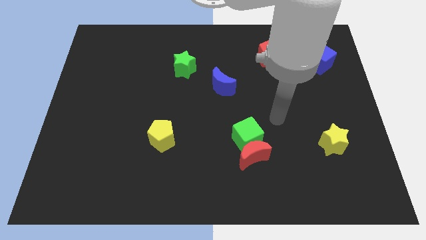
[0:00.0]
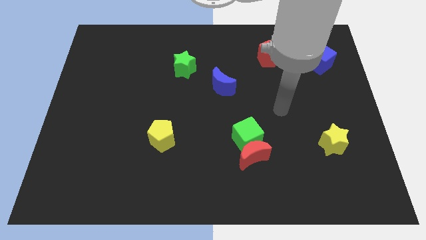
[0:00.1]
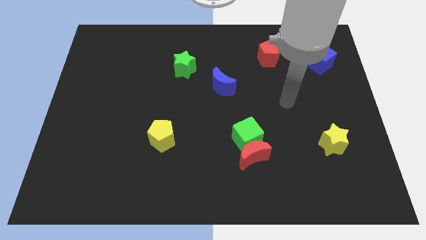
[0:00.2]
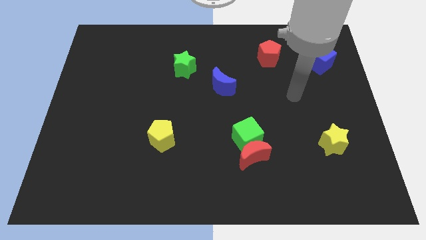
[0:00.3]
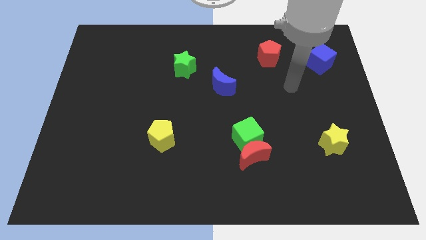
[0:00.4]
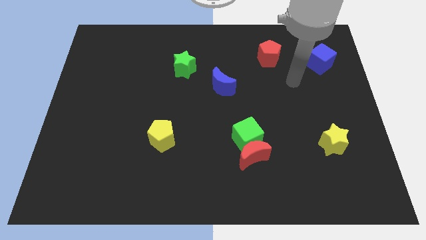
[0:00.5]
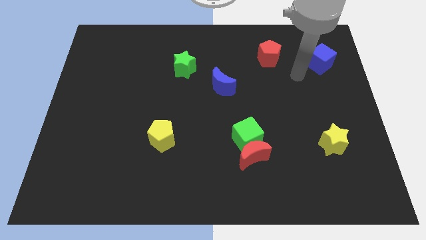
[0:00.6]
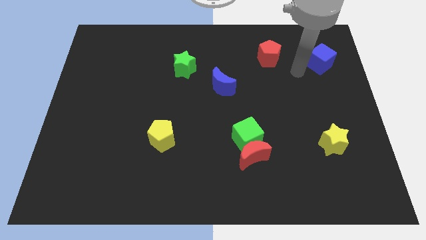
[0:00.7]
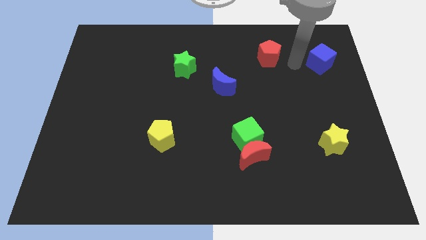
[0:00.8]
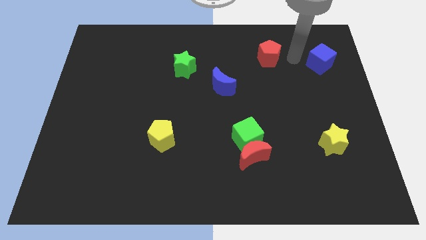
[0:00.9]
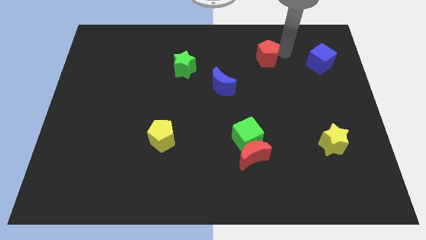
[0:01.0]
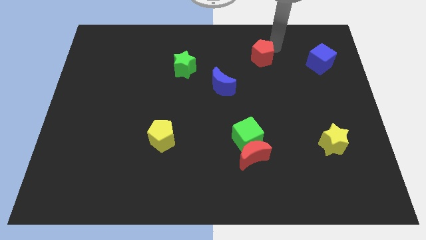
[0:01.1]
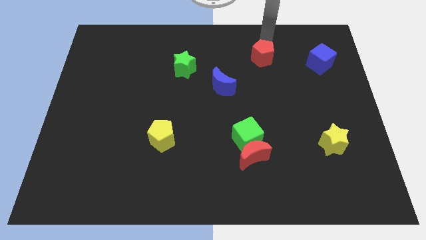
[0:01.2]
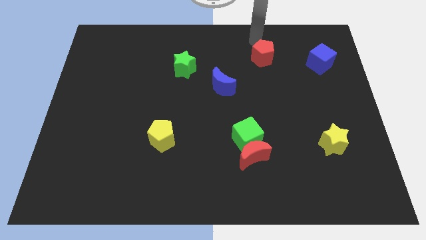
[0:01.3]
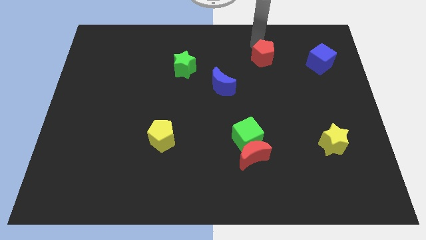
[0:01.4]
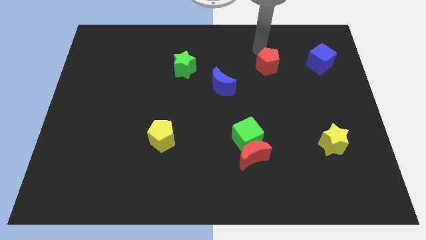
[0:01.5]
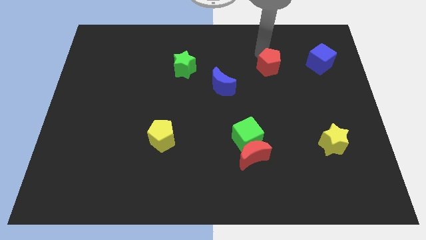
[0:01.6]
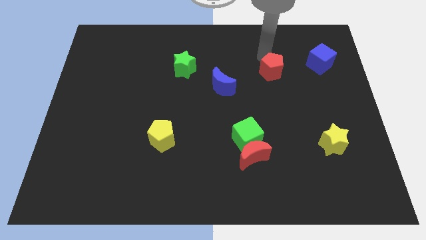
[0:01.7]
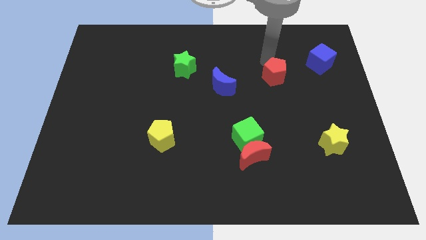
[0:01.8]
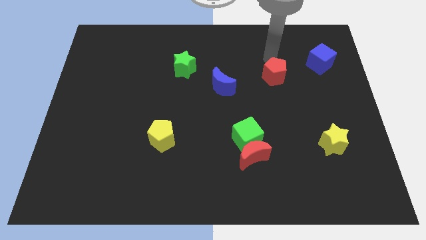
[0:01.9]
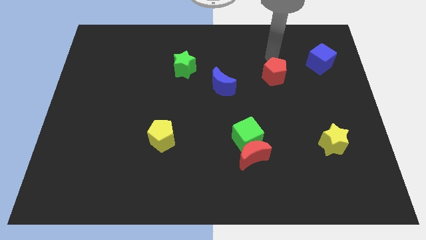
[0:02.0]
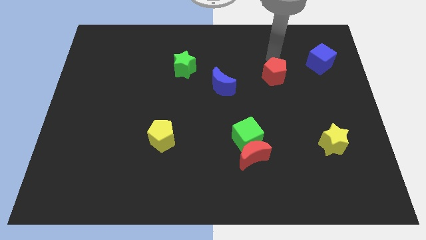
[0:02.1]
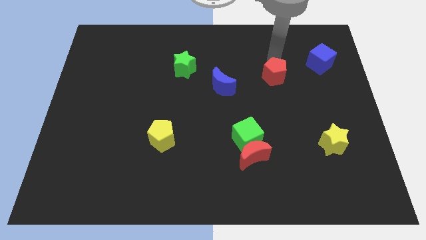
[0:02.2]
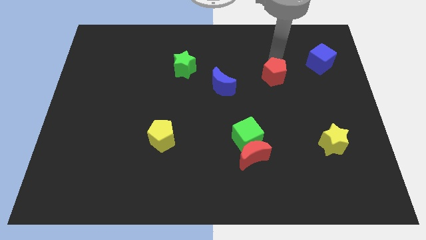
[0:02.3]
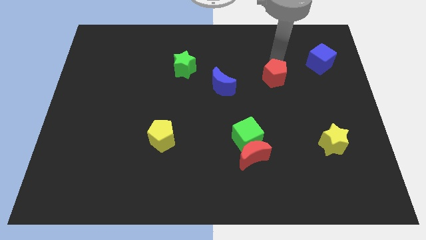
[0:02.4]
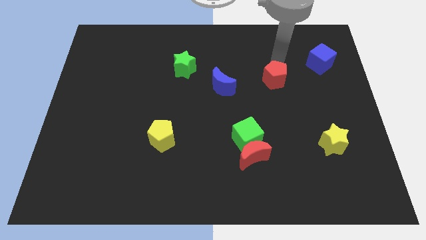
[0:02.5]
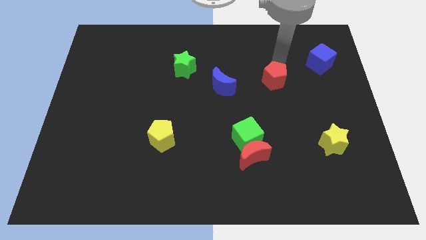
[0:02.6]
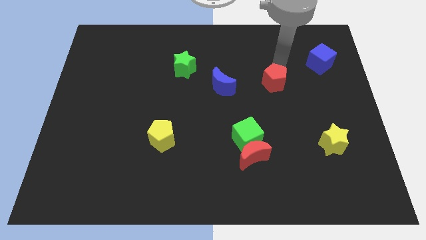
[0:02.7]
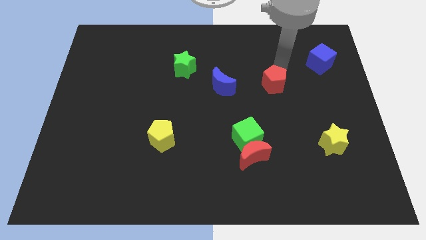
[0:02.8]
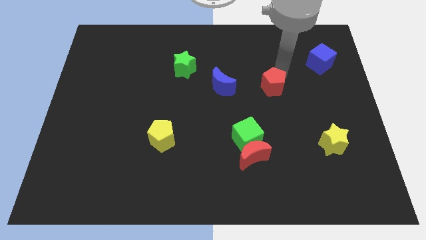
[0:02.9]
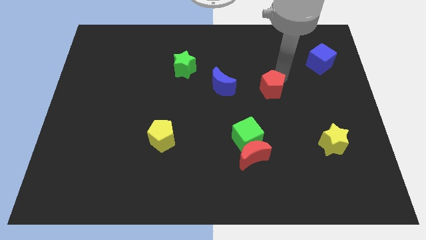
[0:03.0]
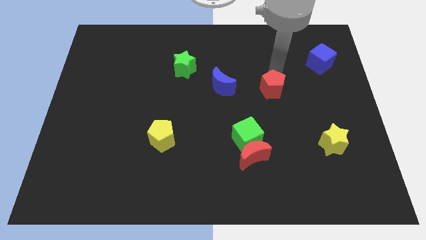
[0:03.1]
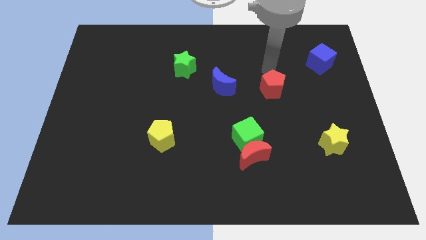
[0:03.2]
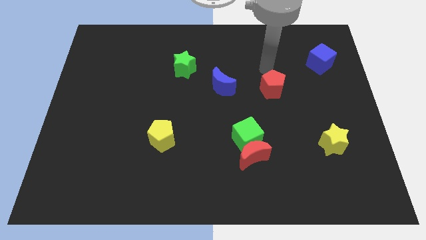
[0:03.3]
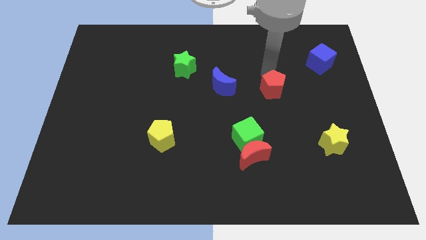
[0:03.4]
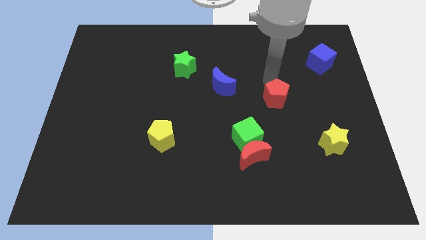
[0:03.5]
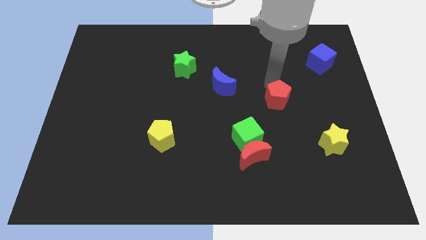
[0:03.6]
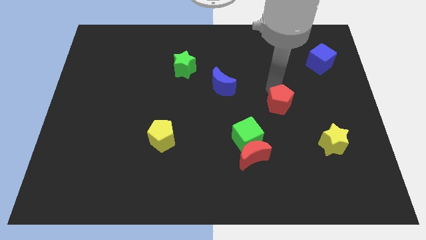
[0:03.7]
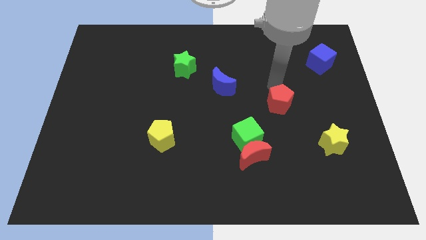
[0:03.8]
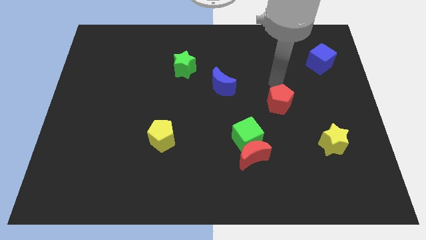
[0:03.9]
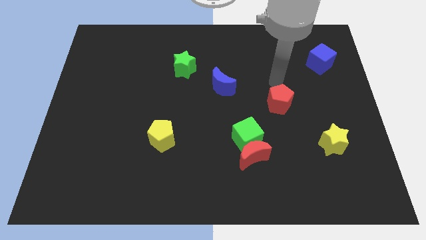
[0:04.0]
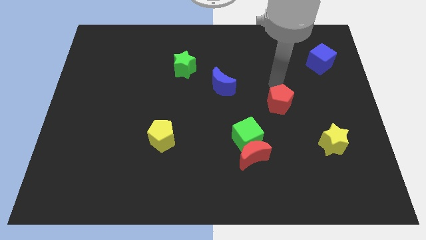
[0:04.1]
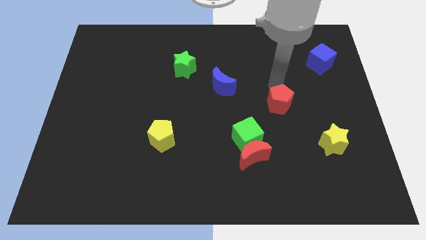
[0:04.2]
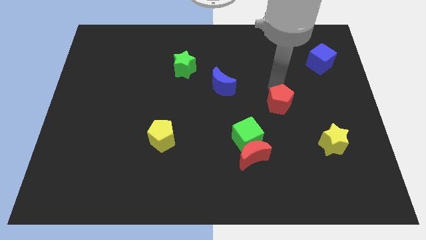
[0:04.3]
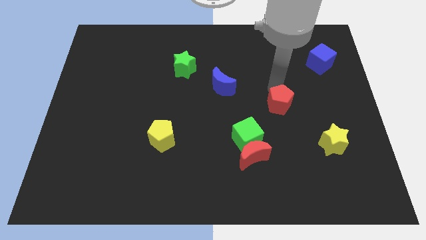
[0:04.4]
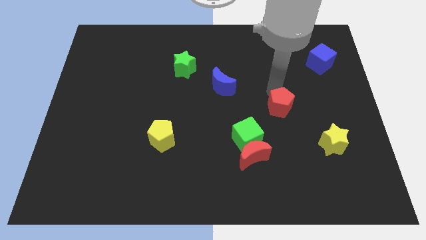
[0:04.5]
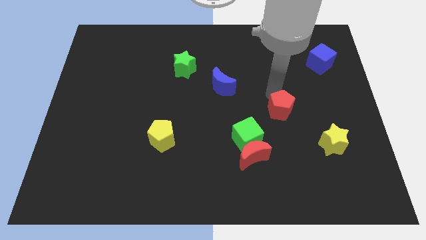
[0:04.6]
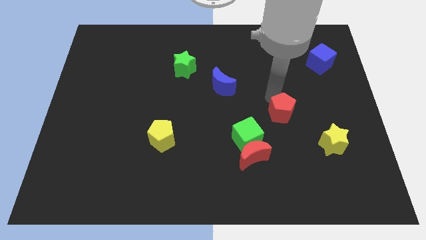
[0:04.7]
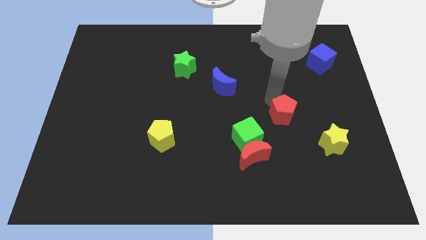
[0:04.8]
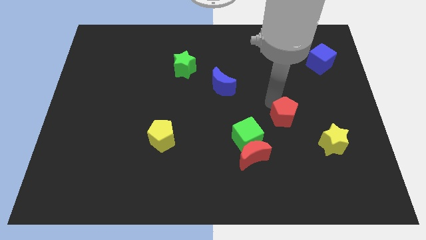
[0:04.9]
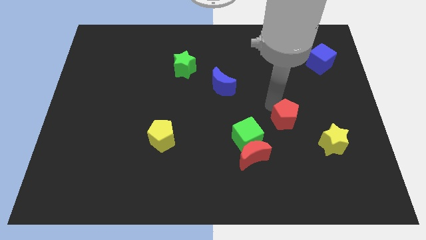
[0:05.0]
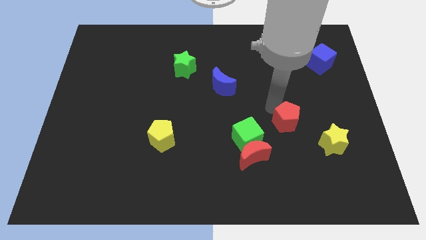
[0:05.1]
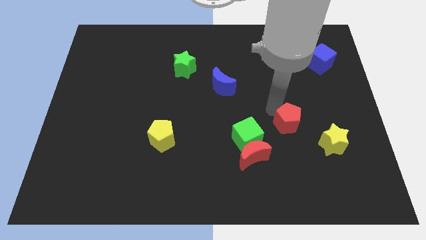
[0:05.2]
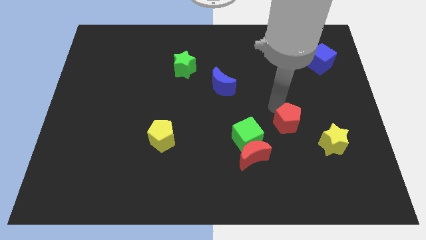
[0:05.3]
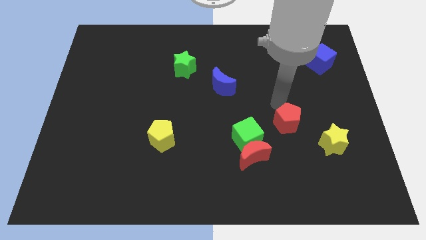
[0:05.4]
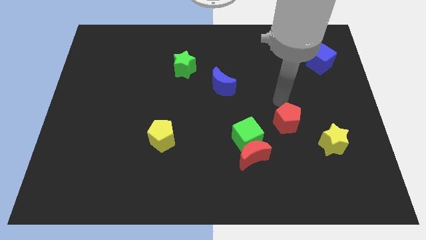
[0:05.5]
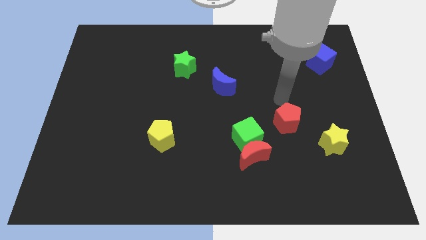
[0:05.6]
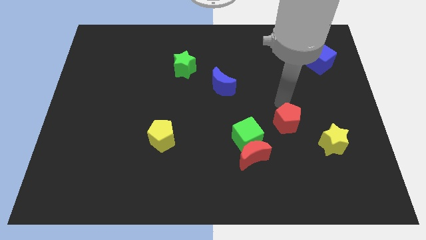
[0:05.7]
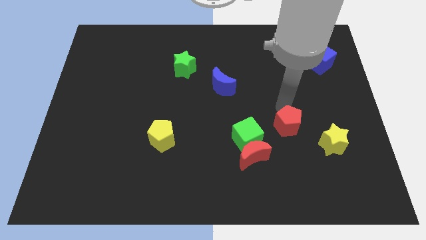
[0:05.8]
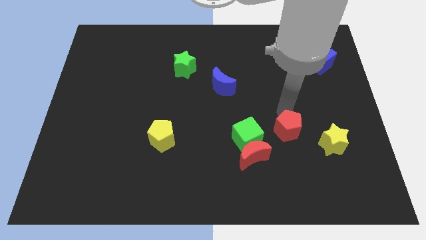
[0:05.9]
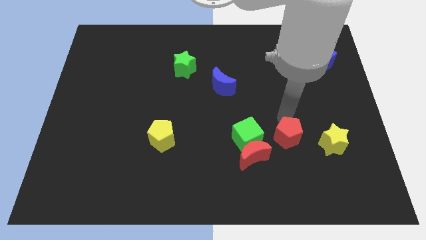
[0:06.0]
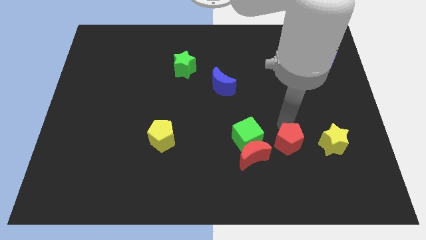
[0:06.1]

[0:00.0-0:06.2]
slide the red pentagon to the right of the red moon

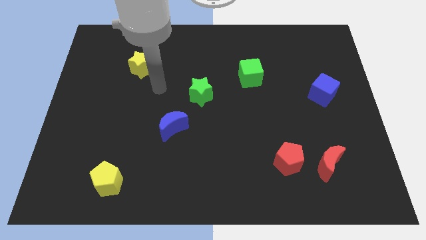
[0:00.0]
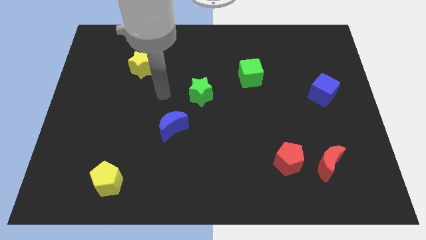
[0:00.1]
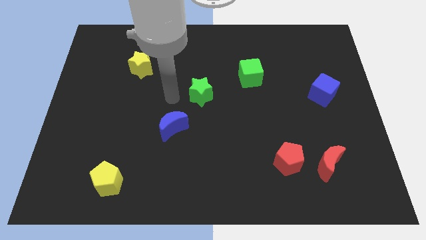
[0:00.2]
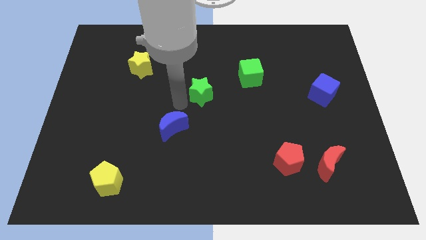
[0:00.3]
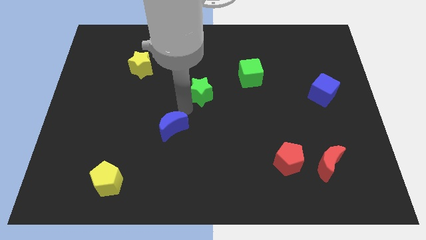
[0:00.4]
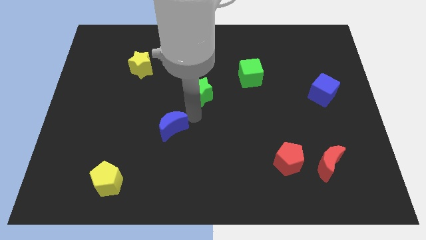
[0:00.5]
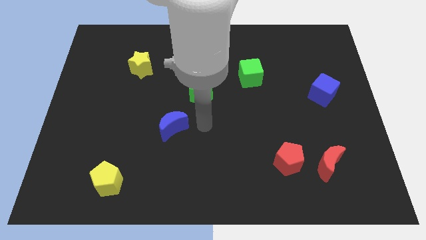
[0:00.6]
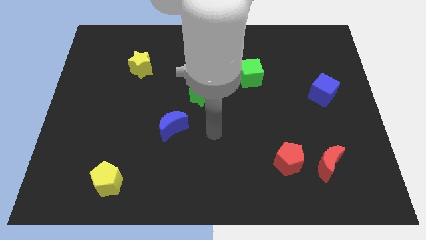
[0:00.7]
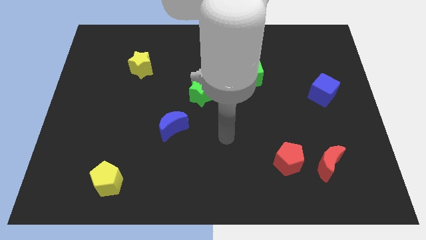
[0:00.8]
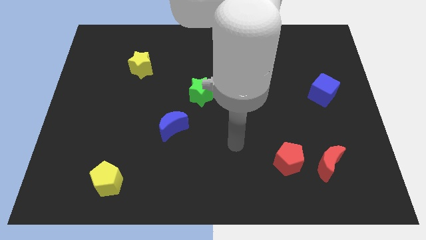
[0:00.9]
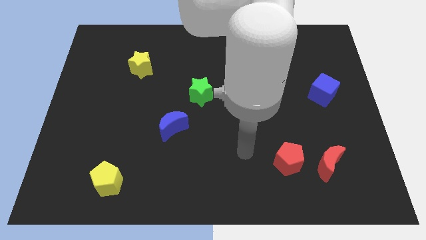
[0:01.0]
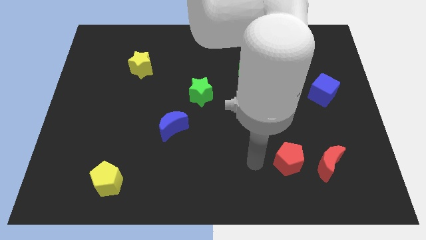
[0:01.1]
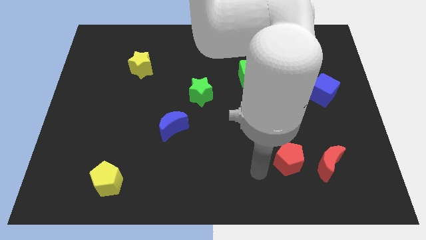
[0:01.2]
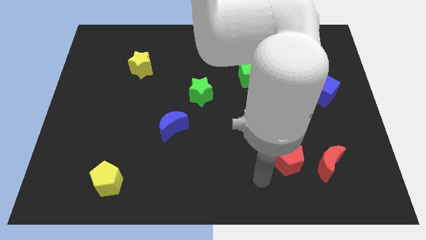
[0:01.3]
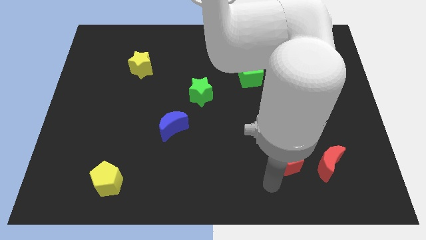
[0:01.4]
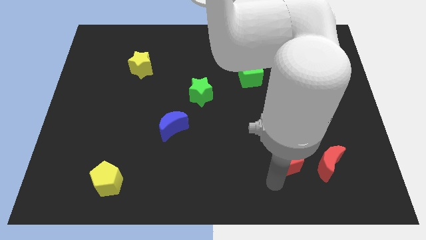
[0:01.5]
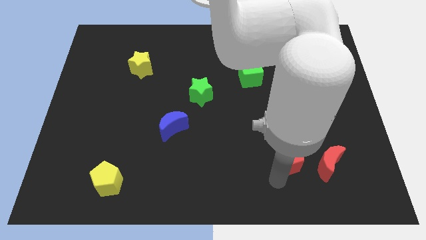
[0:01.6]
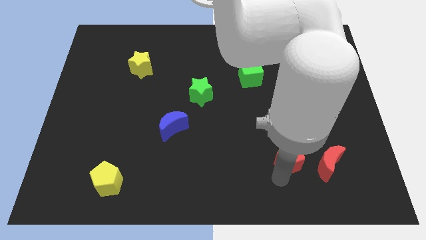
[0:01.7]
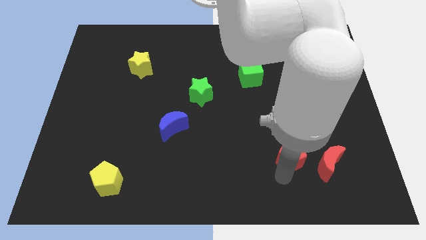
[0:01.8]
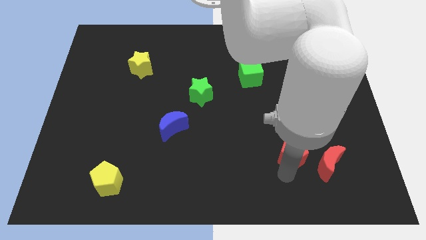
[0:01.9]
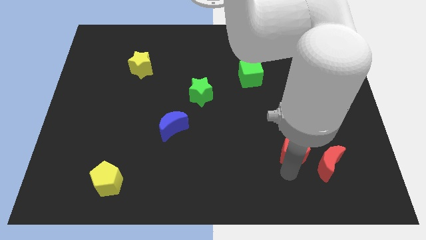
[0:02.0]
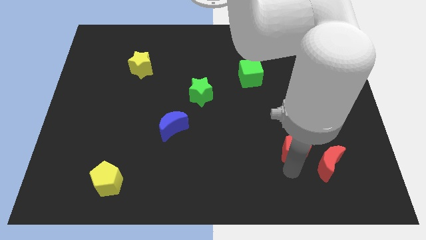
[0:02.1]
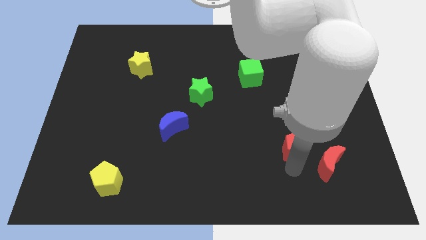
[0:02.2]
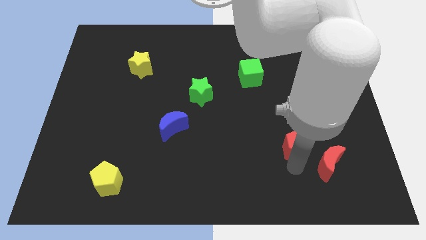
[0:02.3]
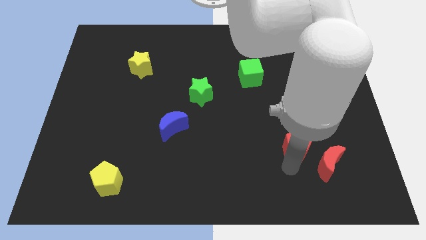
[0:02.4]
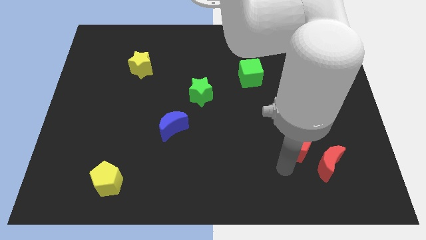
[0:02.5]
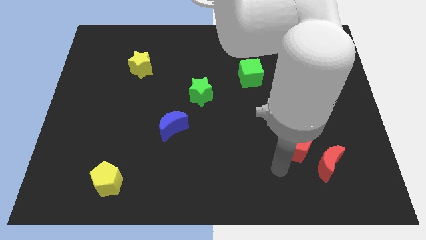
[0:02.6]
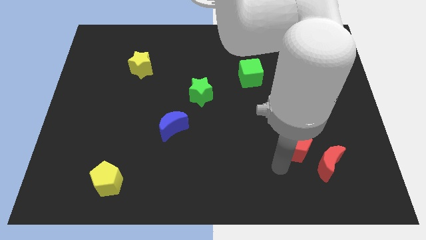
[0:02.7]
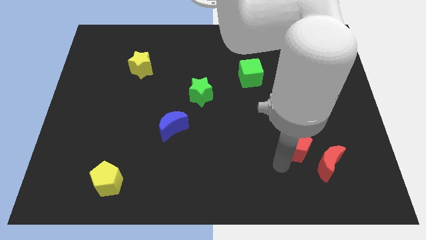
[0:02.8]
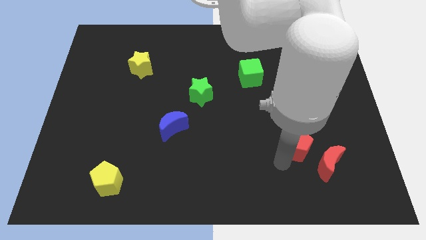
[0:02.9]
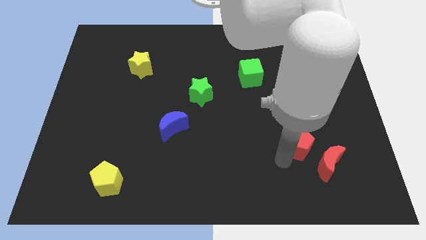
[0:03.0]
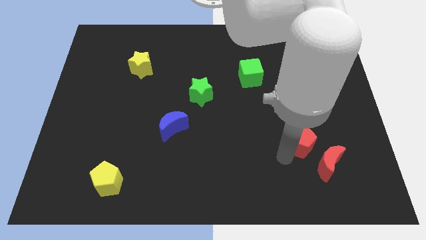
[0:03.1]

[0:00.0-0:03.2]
put the red pentagon to the top side of the red moon
